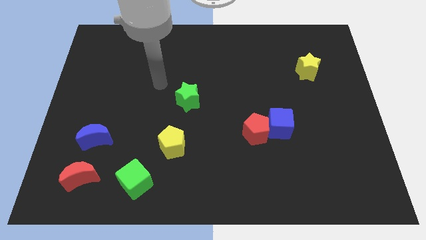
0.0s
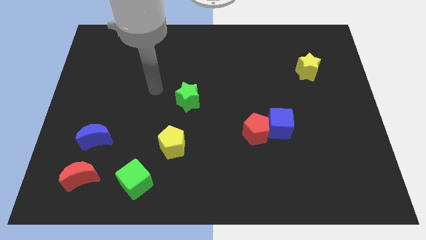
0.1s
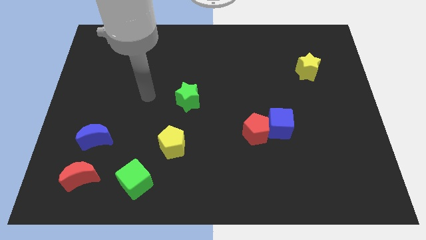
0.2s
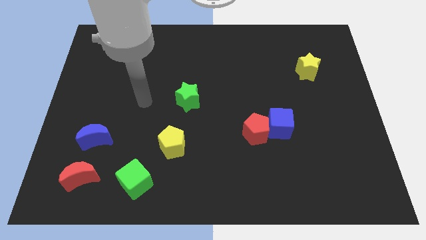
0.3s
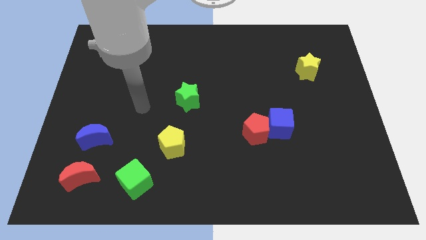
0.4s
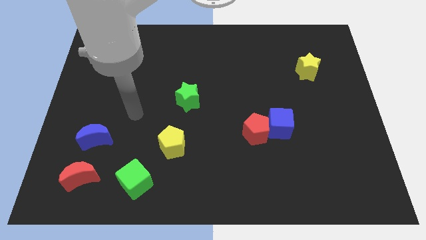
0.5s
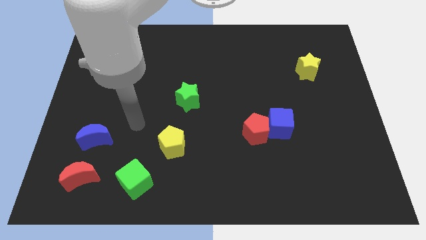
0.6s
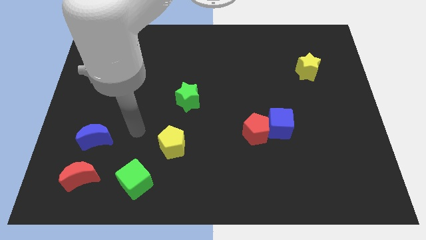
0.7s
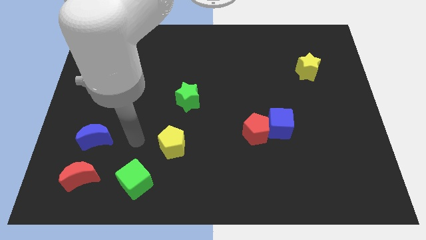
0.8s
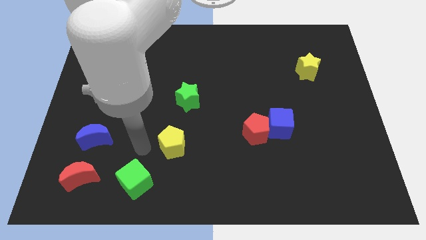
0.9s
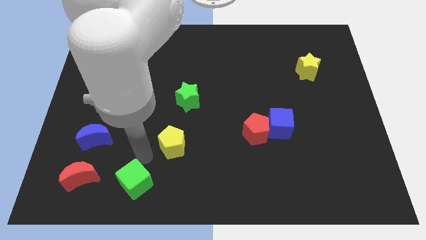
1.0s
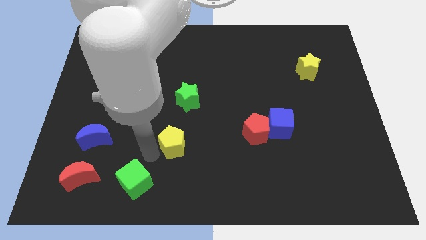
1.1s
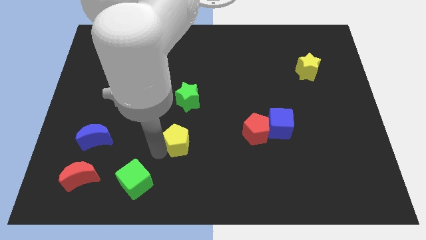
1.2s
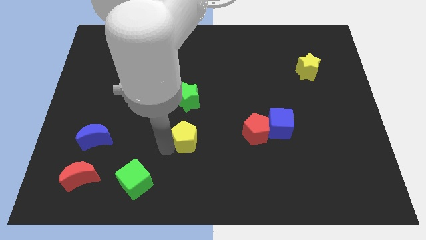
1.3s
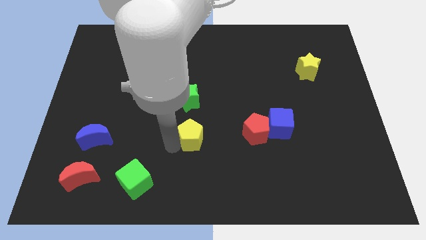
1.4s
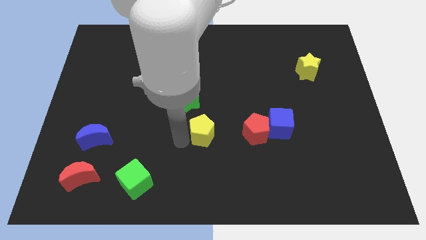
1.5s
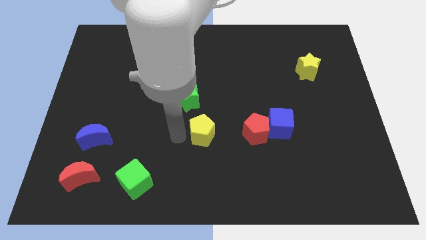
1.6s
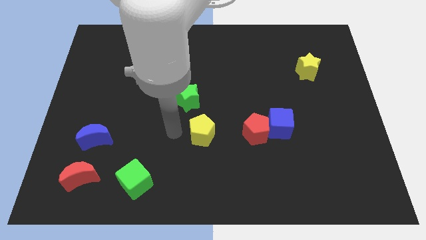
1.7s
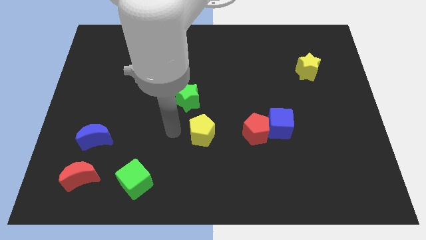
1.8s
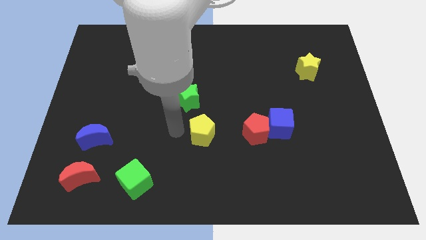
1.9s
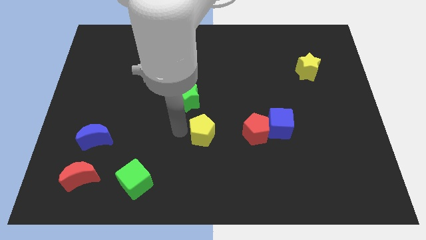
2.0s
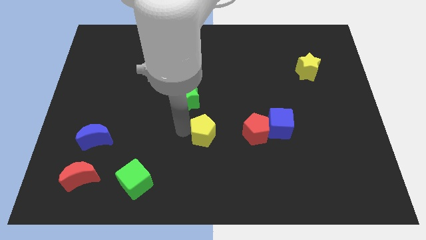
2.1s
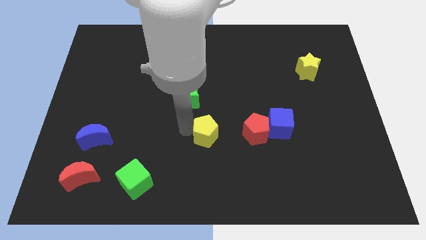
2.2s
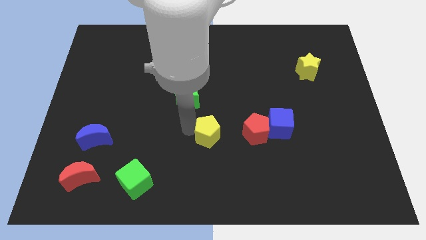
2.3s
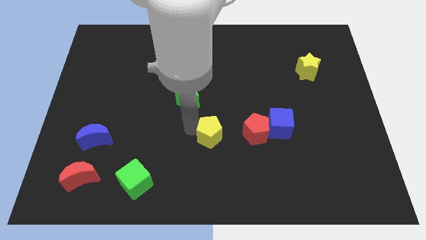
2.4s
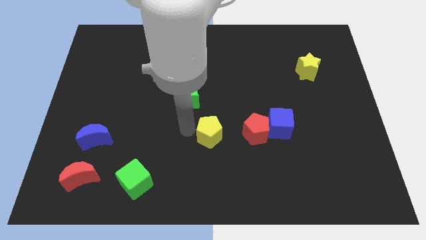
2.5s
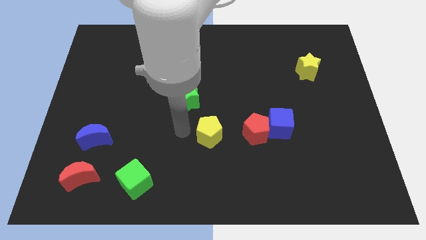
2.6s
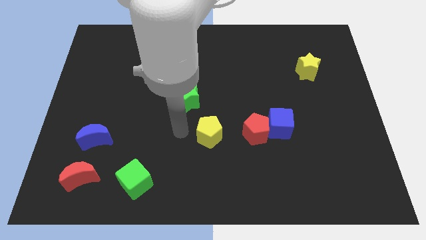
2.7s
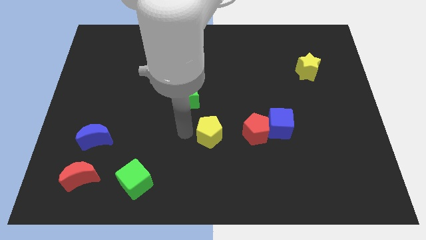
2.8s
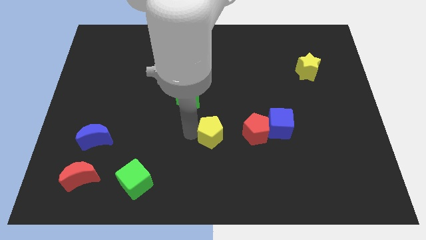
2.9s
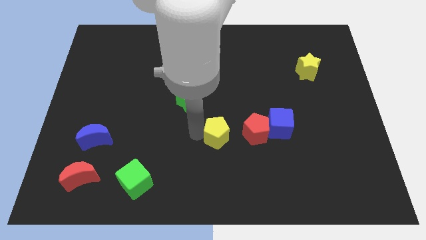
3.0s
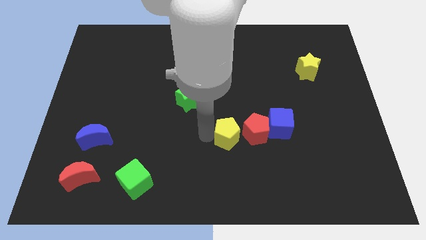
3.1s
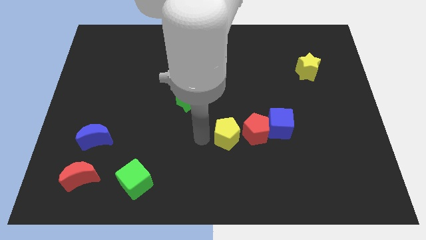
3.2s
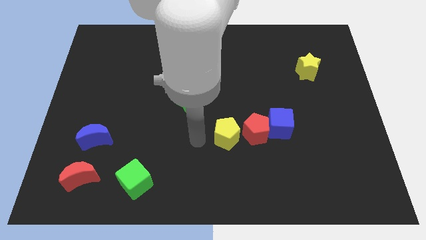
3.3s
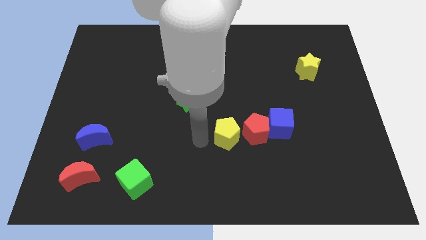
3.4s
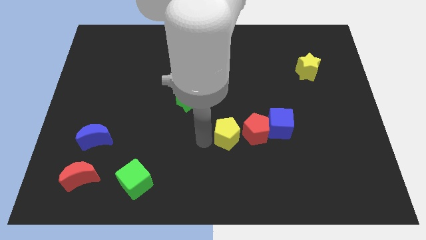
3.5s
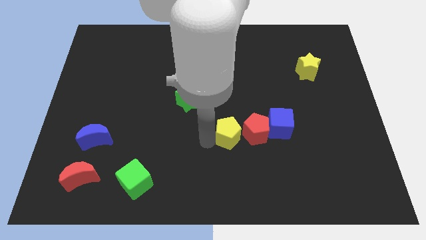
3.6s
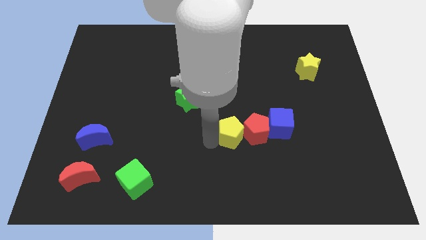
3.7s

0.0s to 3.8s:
push the yellow pentagon close to the red pentagon

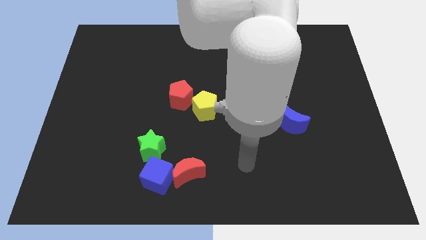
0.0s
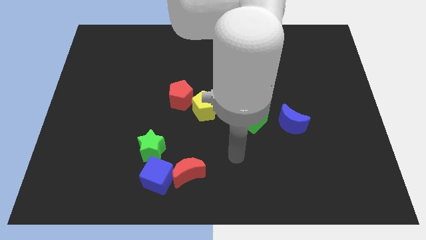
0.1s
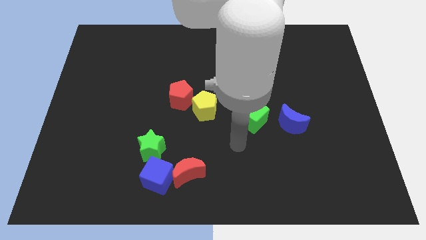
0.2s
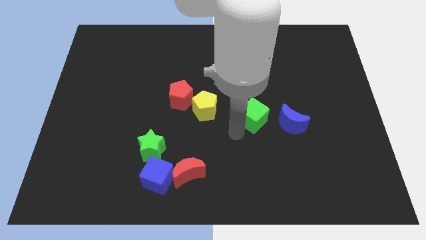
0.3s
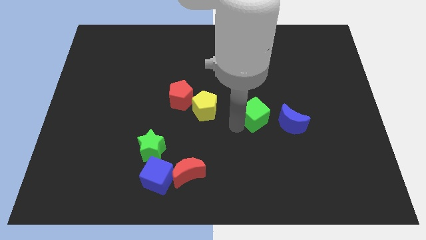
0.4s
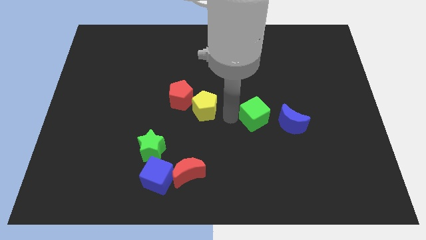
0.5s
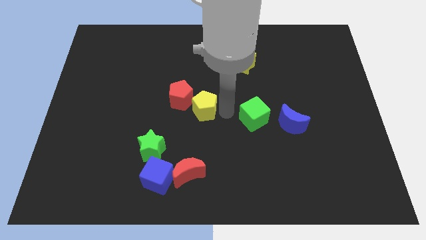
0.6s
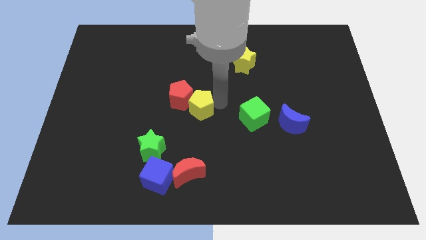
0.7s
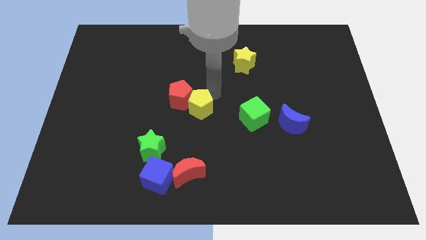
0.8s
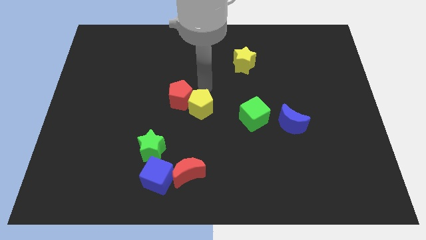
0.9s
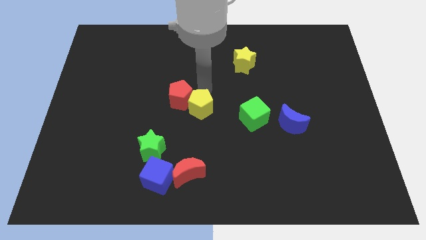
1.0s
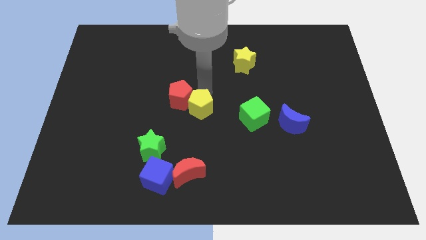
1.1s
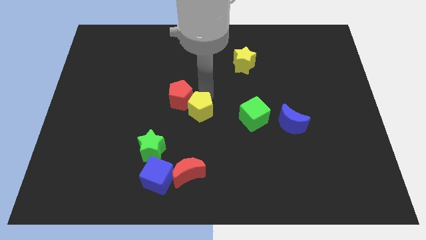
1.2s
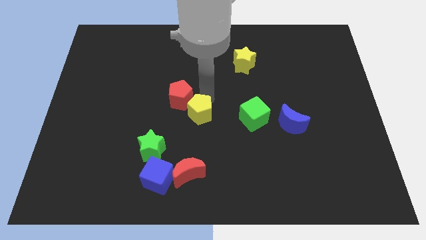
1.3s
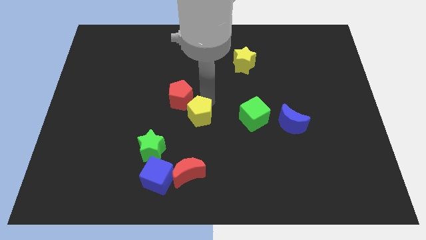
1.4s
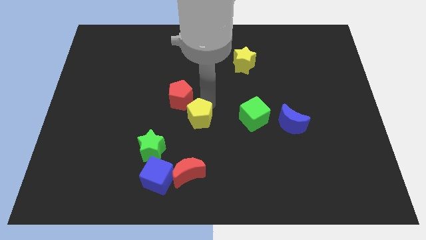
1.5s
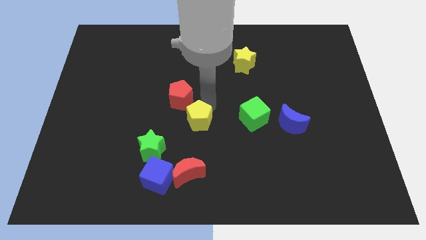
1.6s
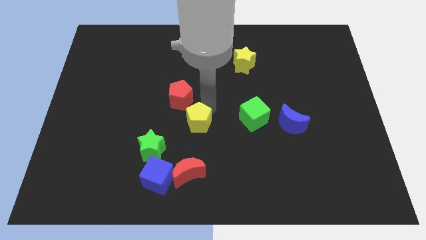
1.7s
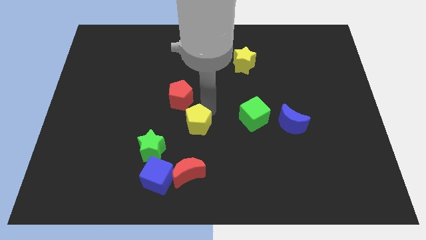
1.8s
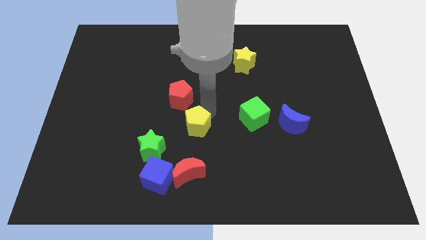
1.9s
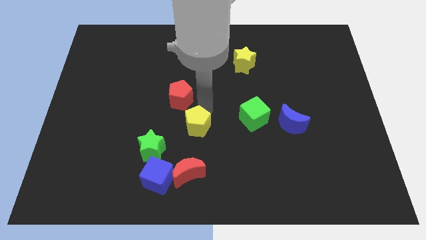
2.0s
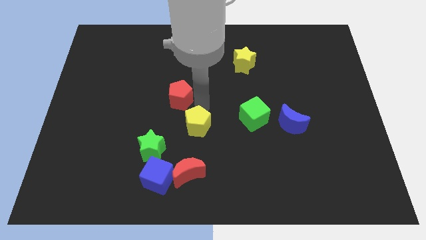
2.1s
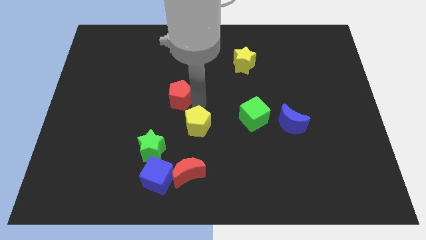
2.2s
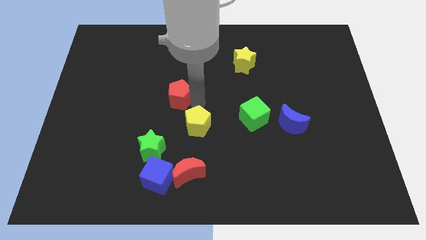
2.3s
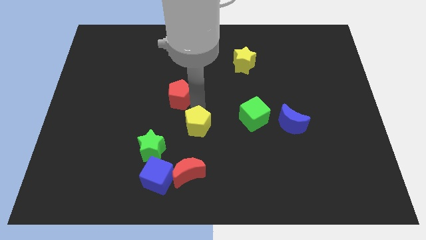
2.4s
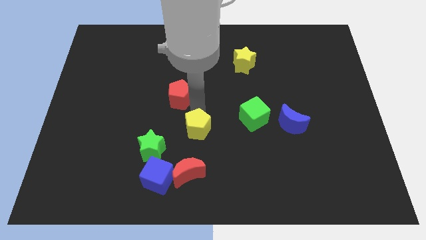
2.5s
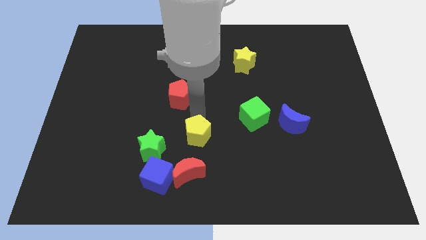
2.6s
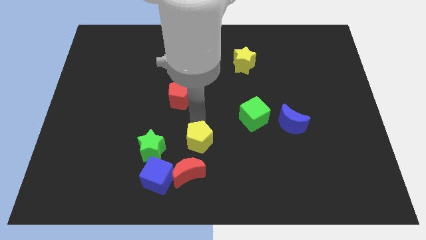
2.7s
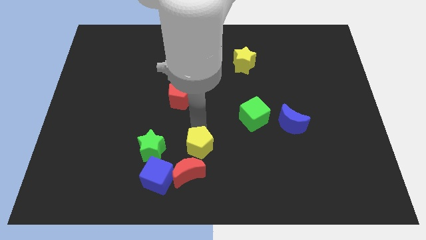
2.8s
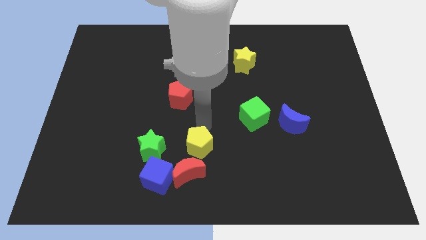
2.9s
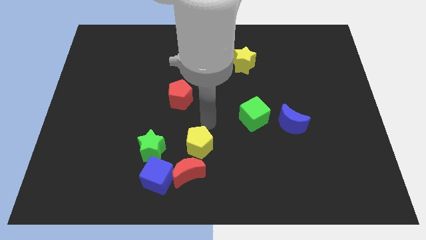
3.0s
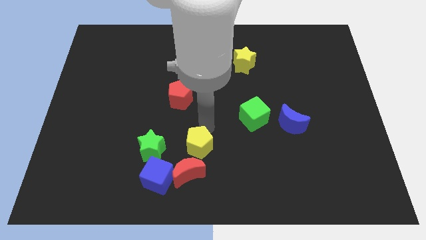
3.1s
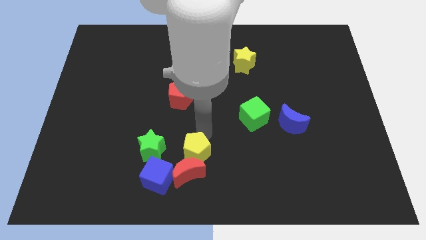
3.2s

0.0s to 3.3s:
push the yellow pentagon next to the red moon

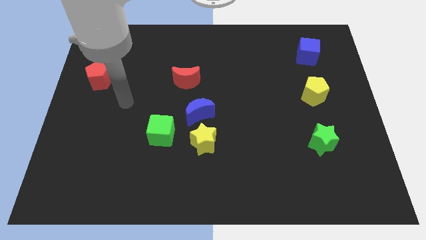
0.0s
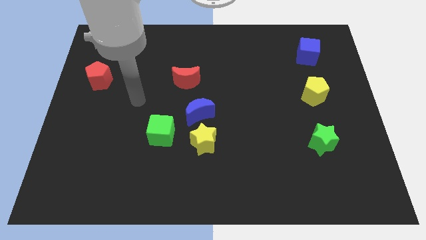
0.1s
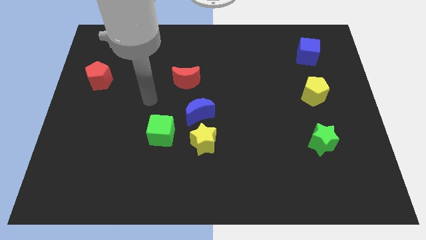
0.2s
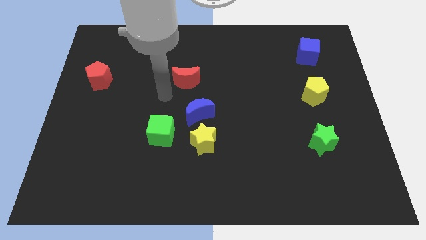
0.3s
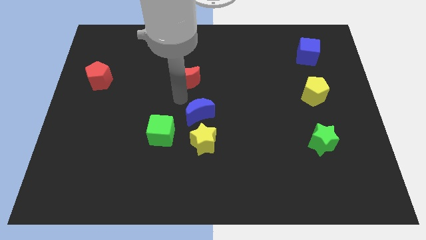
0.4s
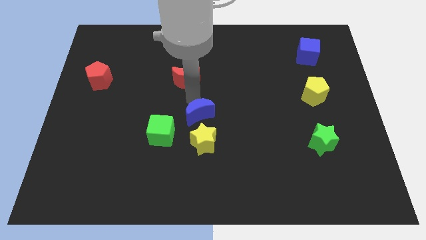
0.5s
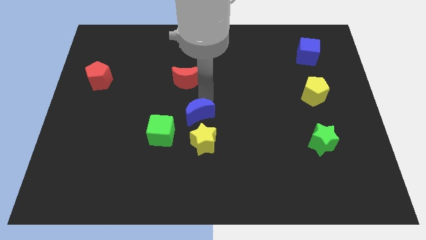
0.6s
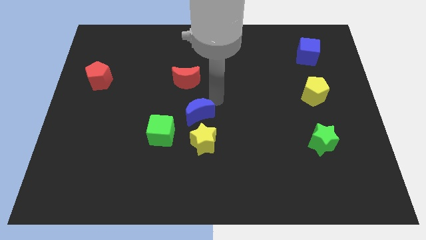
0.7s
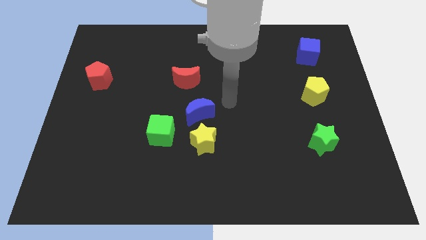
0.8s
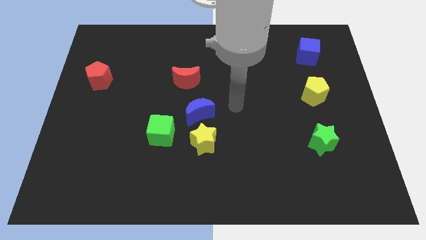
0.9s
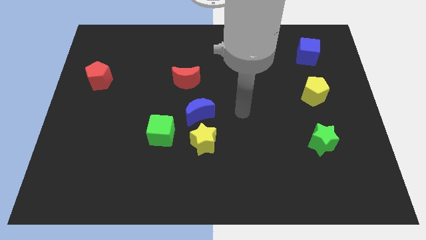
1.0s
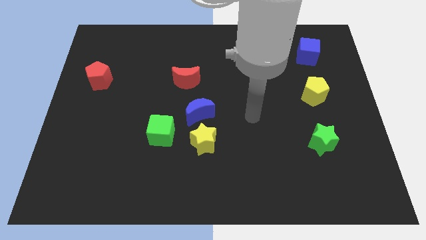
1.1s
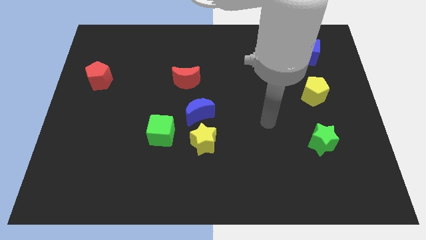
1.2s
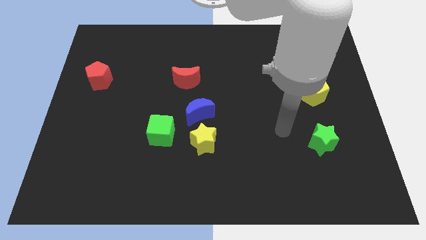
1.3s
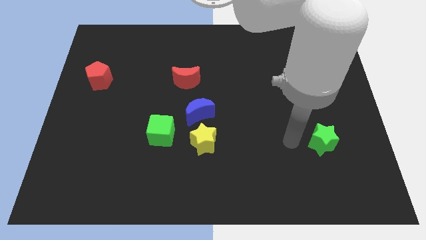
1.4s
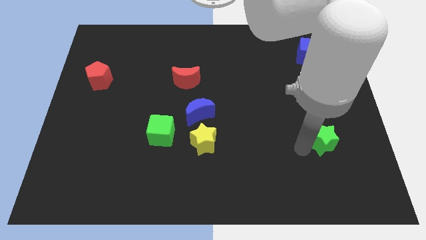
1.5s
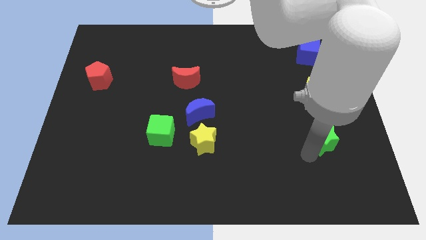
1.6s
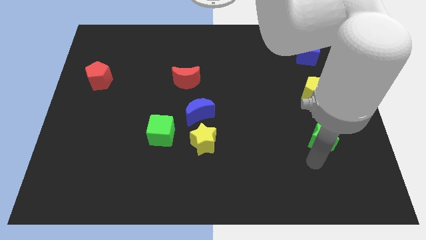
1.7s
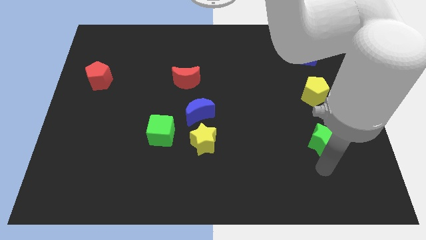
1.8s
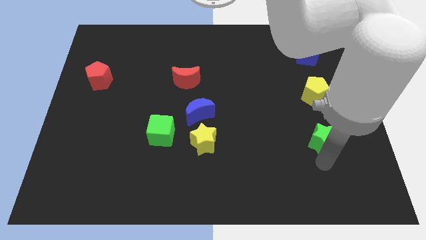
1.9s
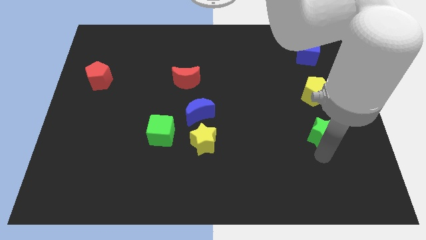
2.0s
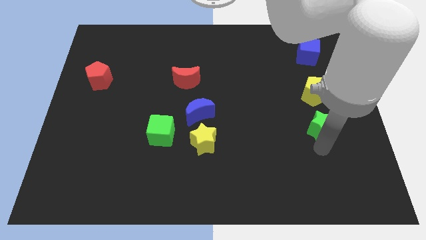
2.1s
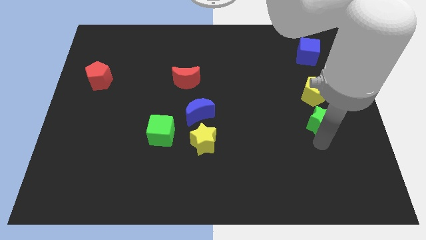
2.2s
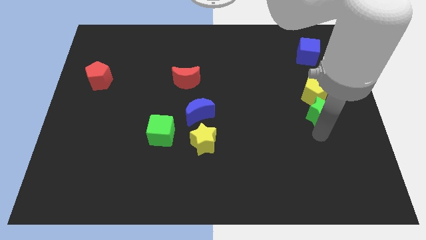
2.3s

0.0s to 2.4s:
slide the green star close to the yellow pentagon
